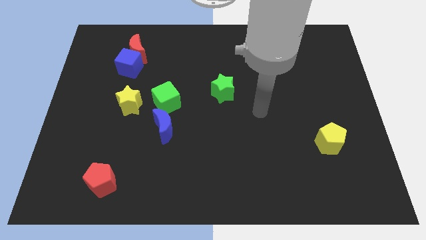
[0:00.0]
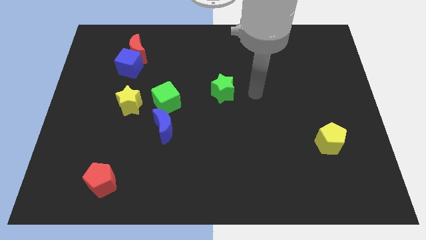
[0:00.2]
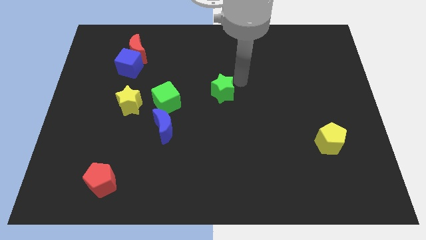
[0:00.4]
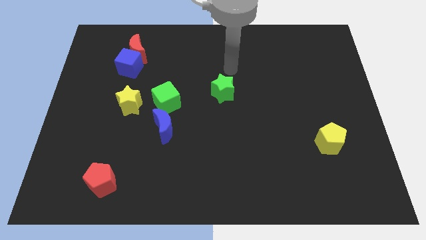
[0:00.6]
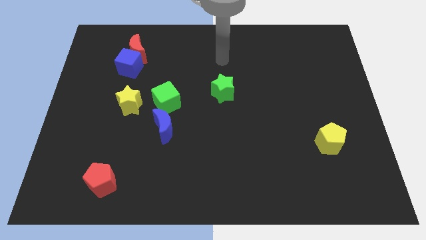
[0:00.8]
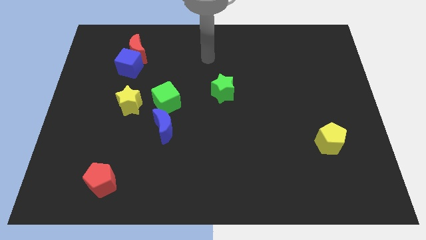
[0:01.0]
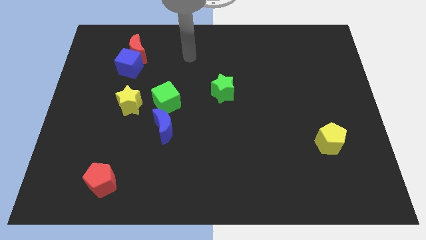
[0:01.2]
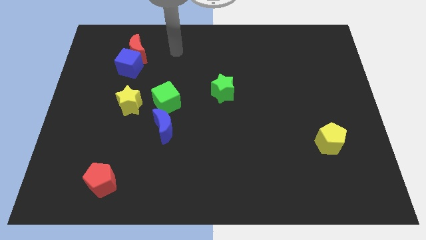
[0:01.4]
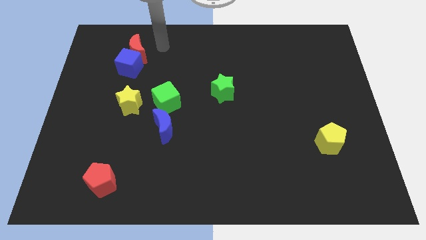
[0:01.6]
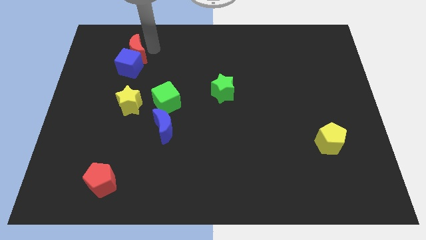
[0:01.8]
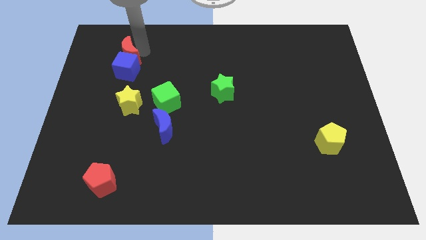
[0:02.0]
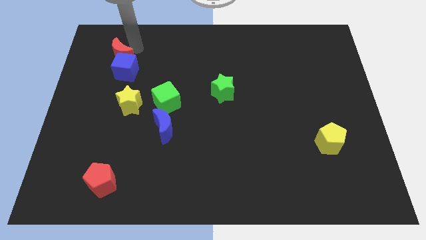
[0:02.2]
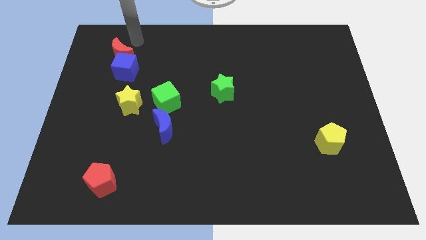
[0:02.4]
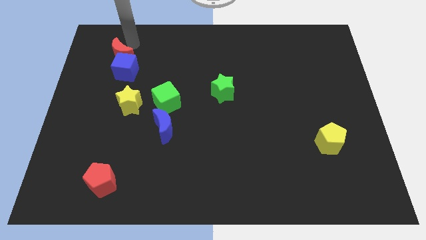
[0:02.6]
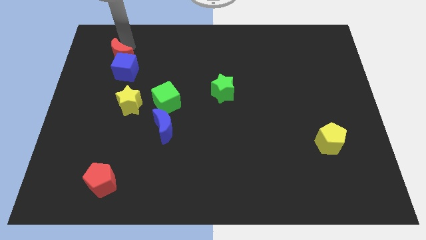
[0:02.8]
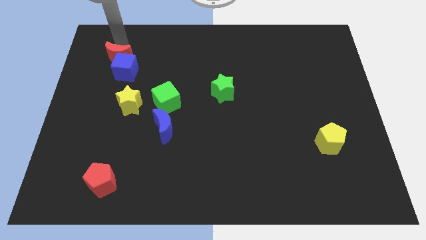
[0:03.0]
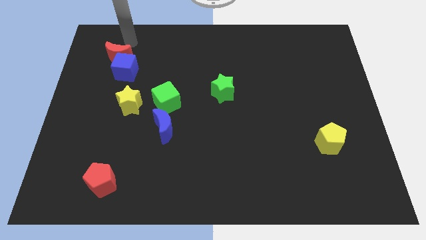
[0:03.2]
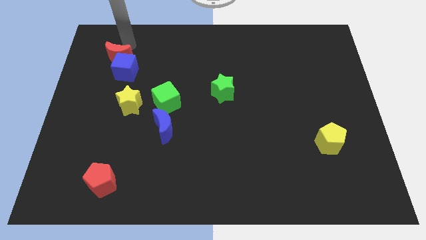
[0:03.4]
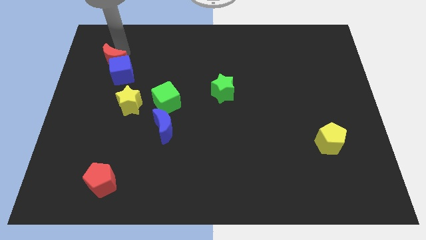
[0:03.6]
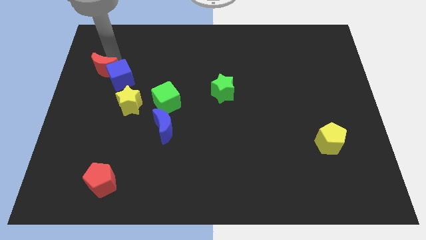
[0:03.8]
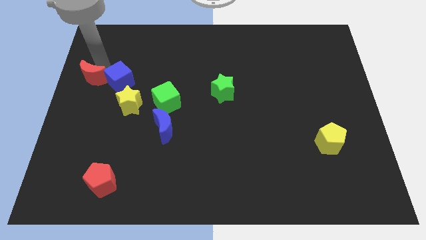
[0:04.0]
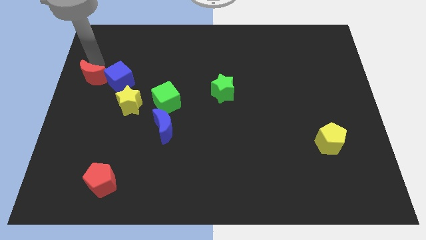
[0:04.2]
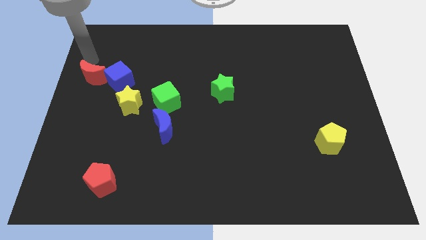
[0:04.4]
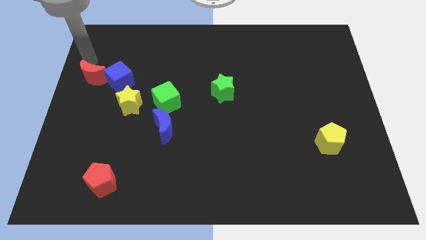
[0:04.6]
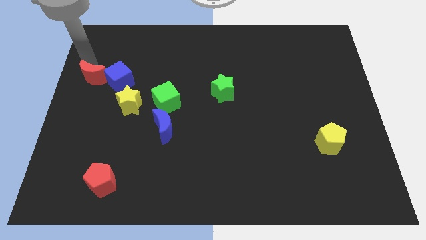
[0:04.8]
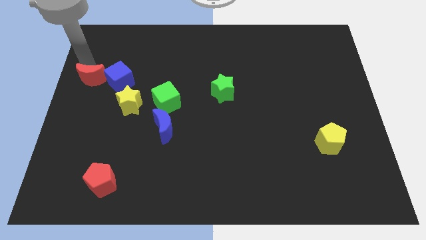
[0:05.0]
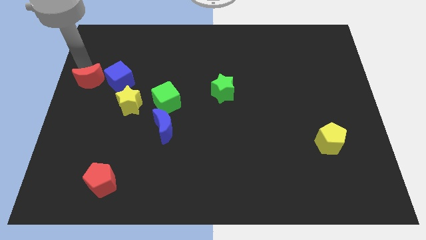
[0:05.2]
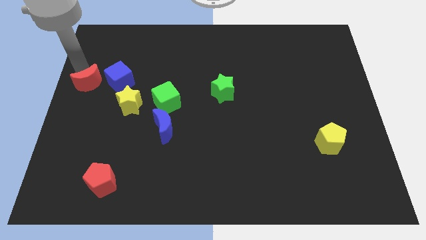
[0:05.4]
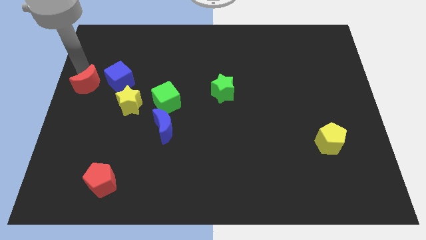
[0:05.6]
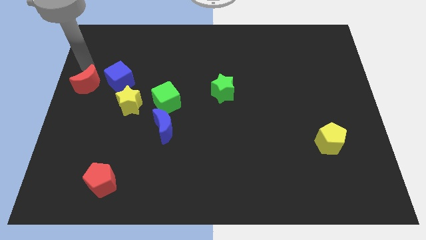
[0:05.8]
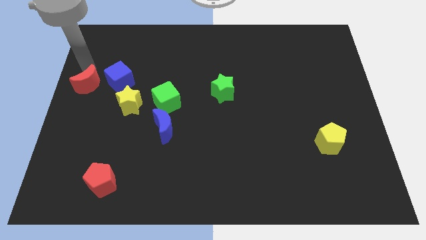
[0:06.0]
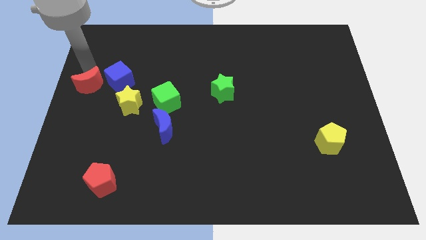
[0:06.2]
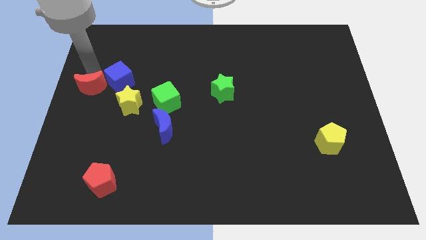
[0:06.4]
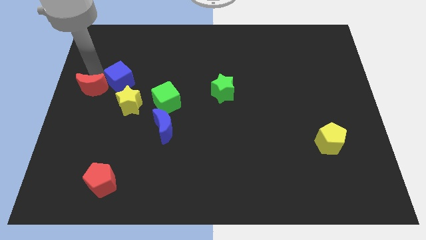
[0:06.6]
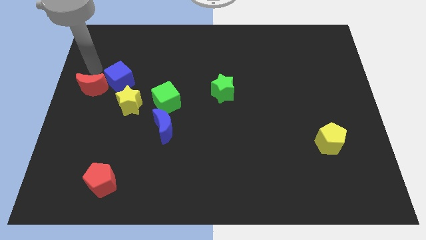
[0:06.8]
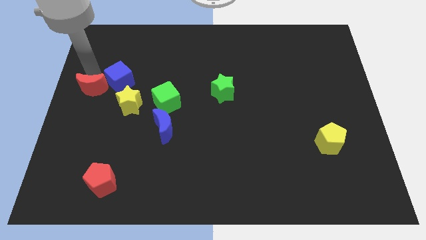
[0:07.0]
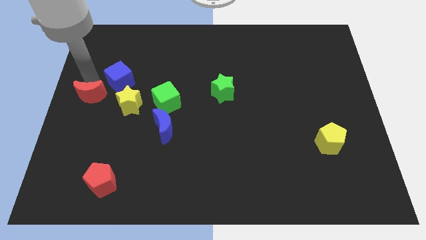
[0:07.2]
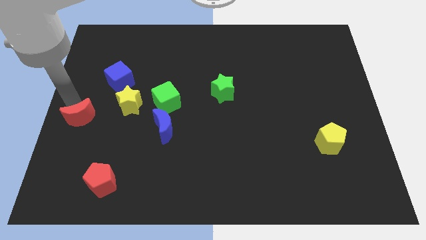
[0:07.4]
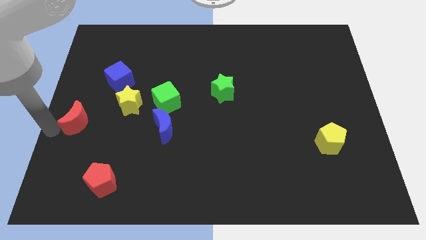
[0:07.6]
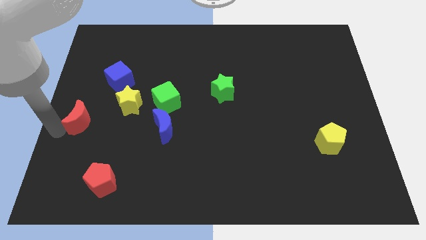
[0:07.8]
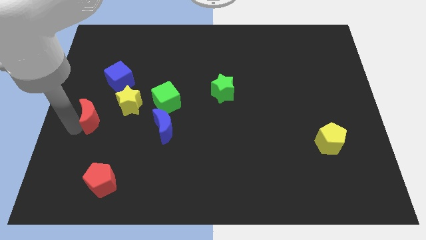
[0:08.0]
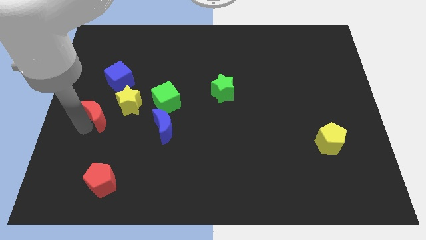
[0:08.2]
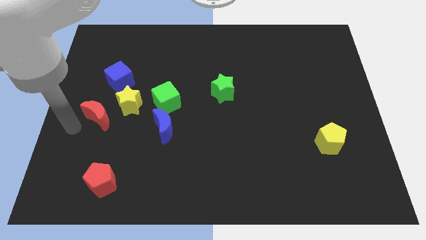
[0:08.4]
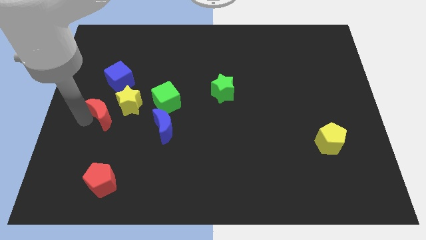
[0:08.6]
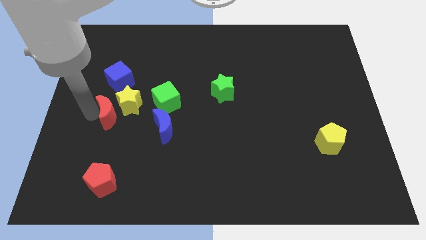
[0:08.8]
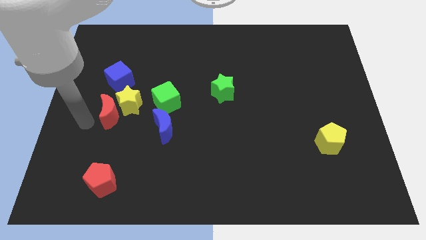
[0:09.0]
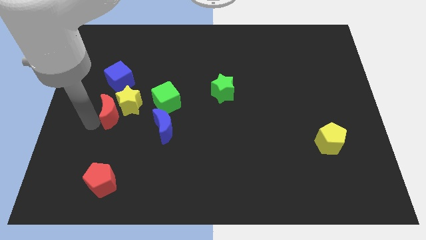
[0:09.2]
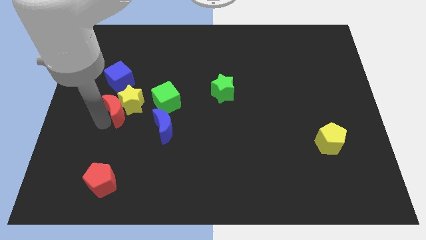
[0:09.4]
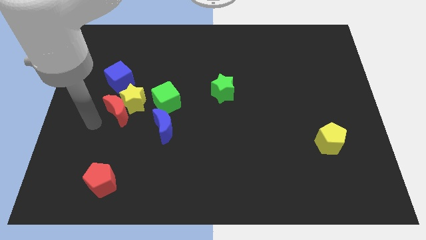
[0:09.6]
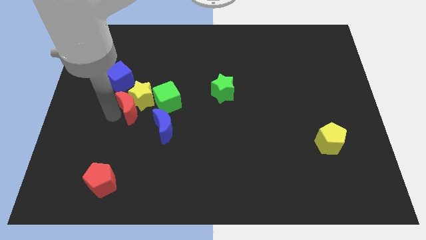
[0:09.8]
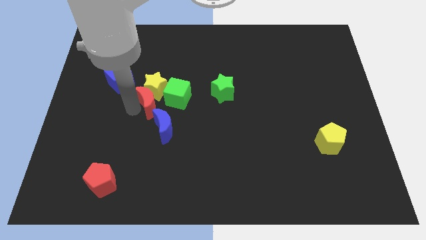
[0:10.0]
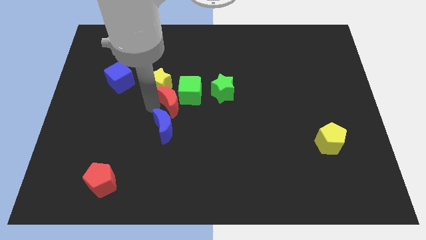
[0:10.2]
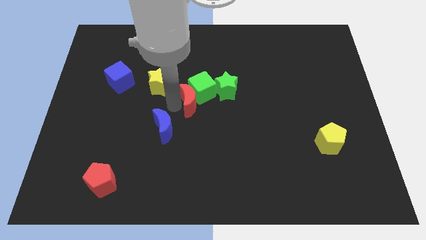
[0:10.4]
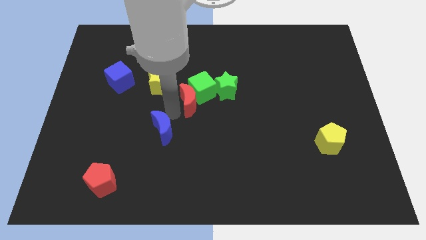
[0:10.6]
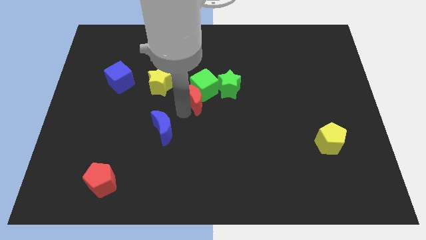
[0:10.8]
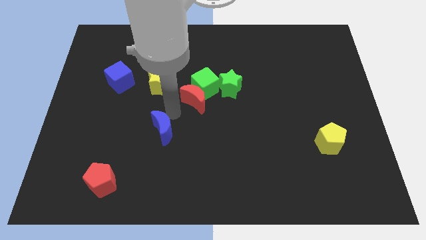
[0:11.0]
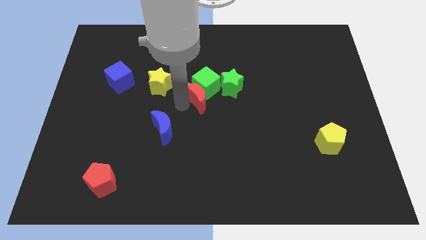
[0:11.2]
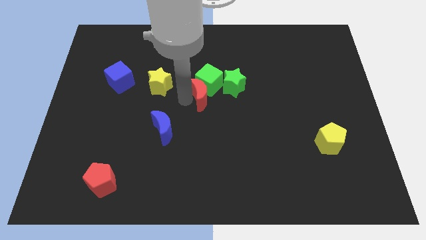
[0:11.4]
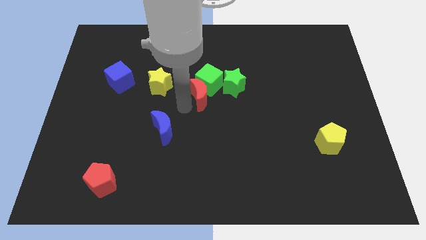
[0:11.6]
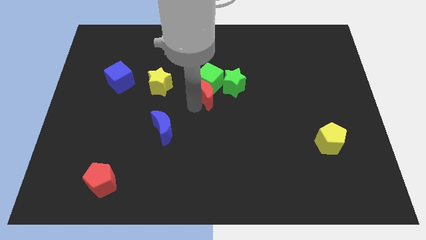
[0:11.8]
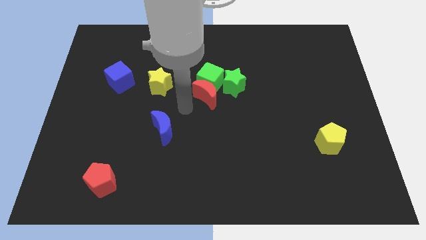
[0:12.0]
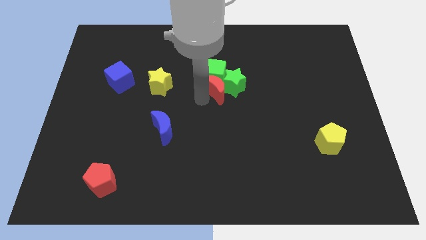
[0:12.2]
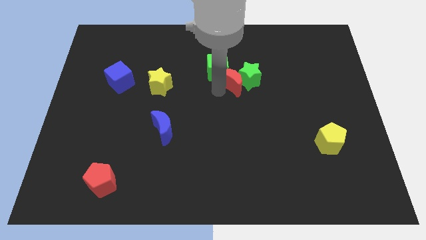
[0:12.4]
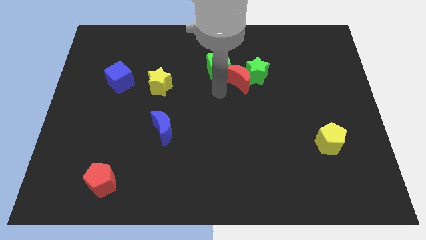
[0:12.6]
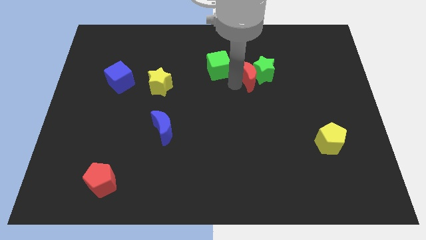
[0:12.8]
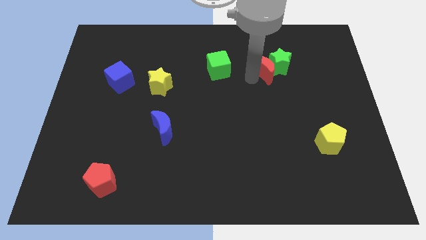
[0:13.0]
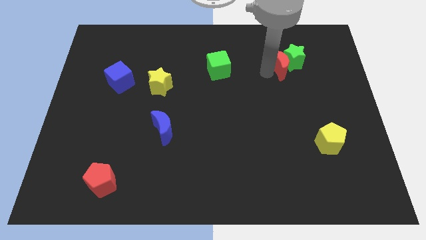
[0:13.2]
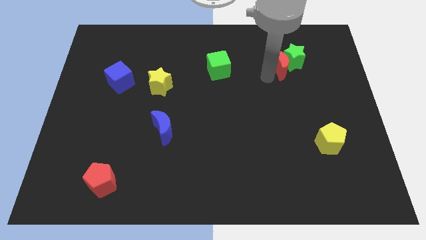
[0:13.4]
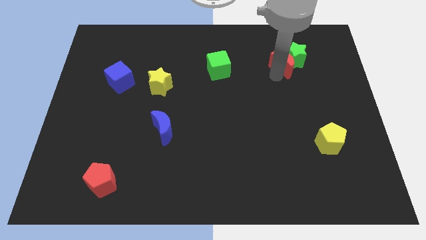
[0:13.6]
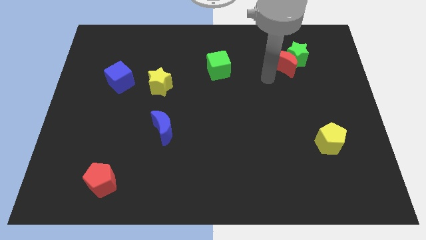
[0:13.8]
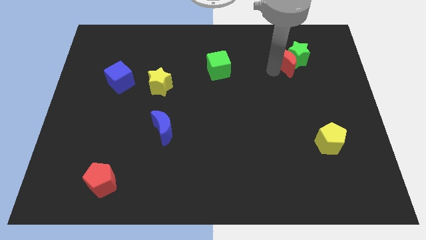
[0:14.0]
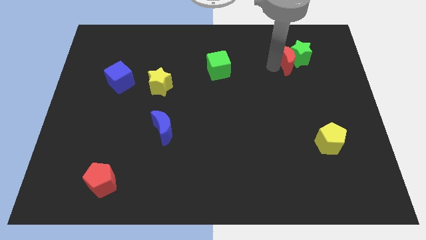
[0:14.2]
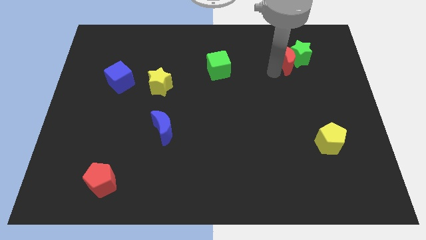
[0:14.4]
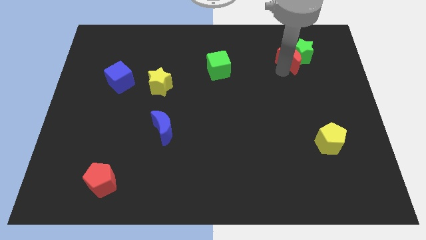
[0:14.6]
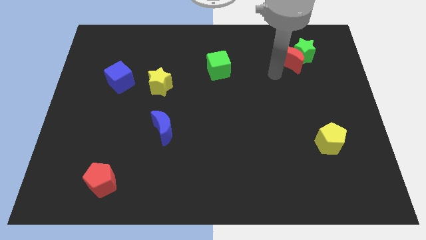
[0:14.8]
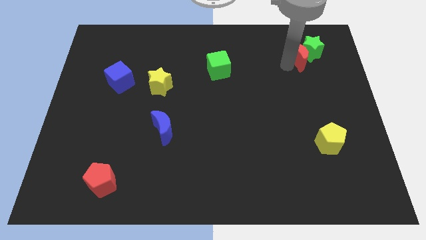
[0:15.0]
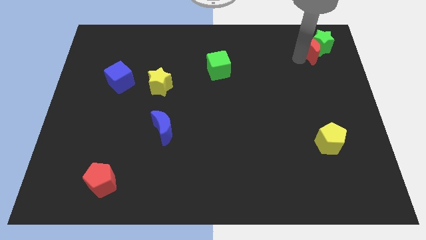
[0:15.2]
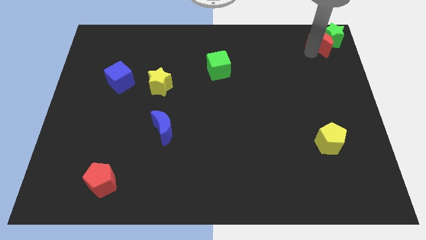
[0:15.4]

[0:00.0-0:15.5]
put the red moon to the top right
